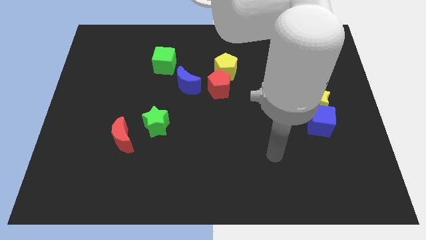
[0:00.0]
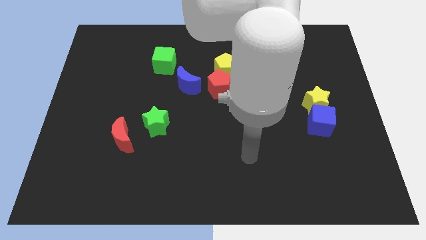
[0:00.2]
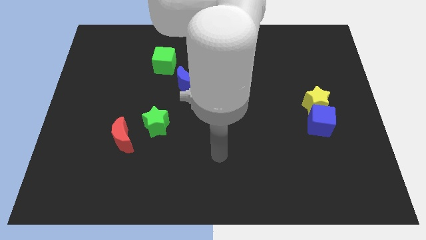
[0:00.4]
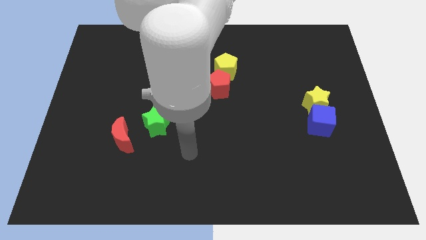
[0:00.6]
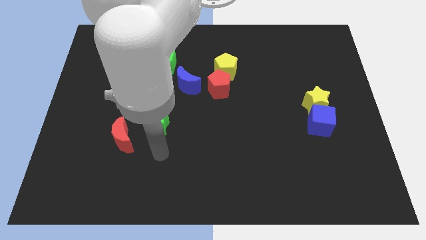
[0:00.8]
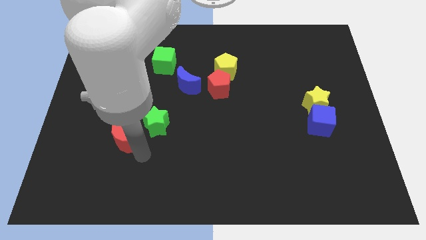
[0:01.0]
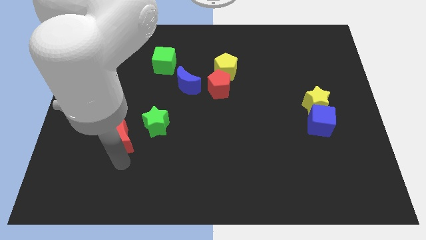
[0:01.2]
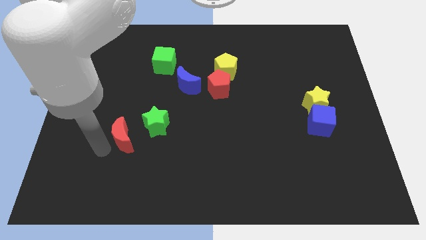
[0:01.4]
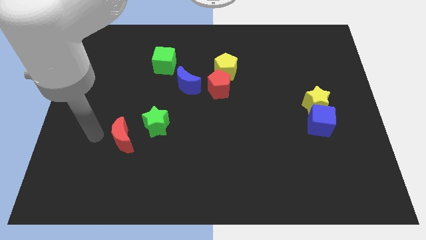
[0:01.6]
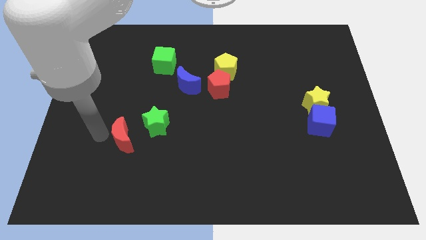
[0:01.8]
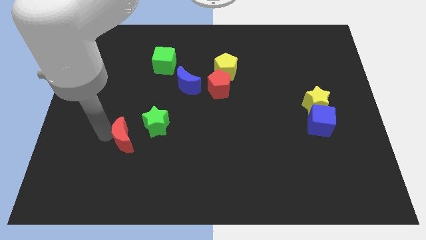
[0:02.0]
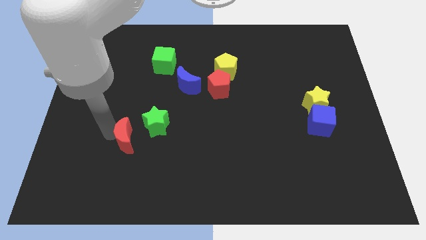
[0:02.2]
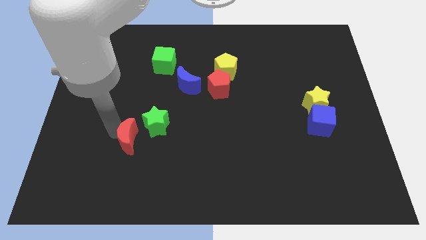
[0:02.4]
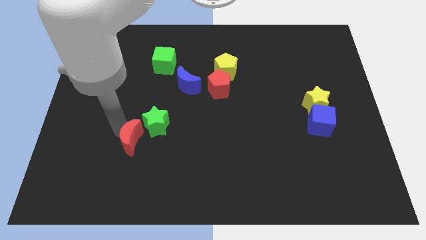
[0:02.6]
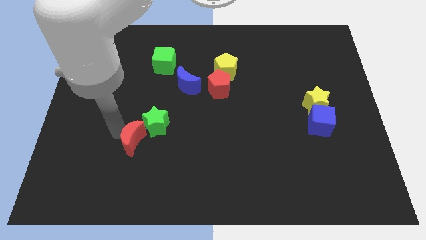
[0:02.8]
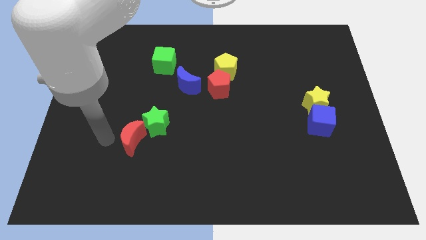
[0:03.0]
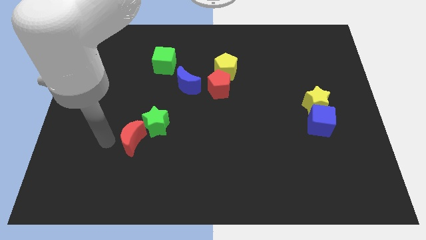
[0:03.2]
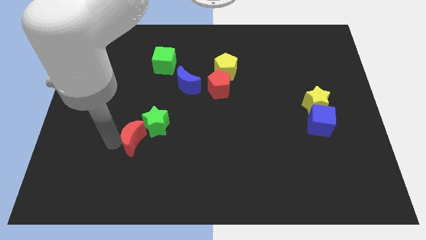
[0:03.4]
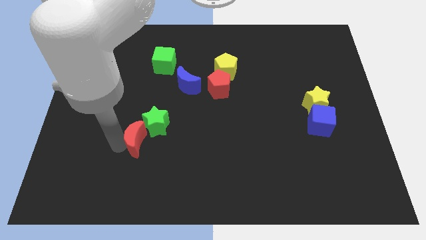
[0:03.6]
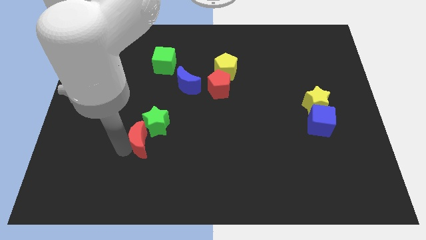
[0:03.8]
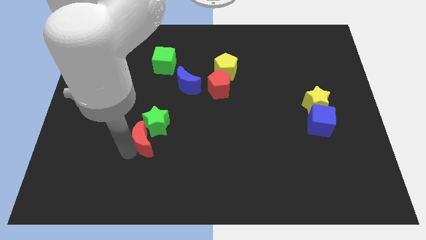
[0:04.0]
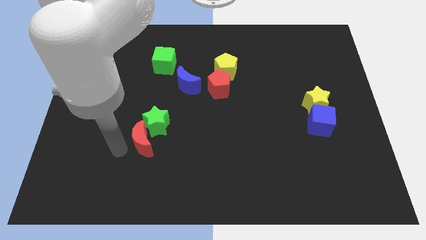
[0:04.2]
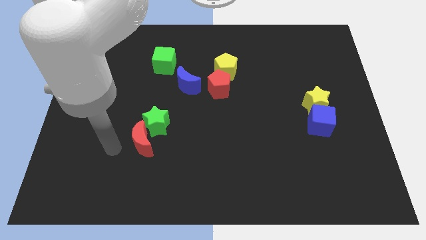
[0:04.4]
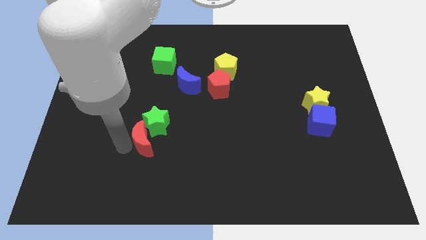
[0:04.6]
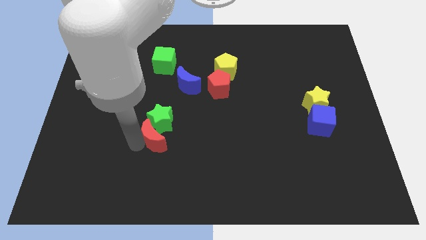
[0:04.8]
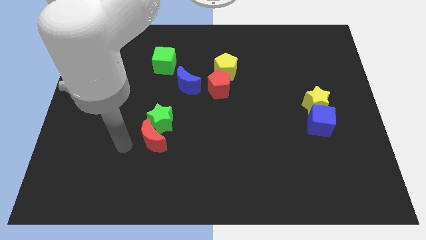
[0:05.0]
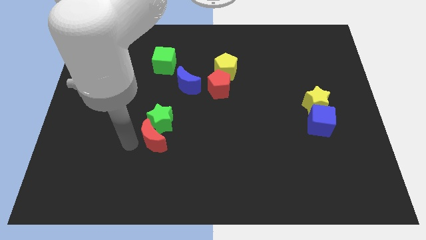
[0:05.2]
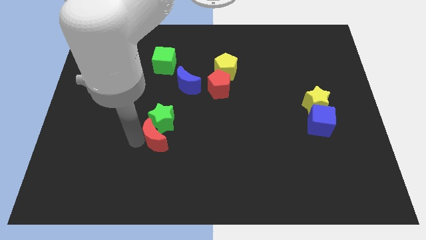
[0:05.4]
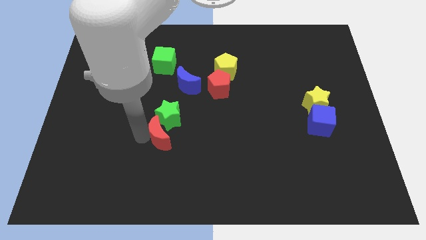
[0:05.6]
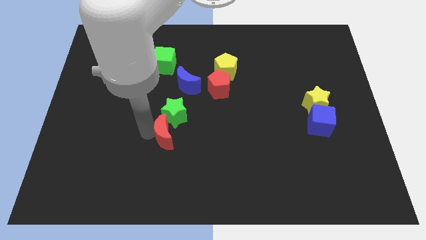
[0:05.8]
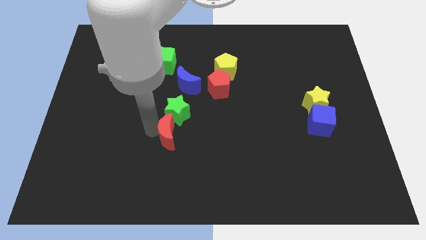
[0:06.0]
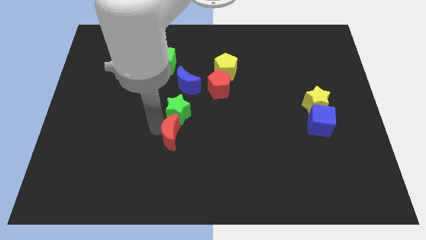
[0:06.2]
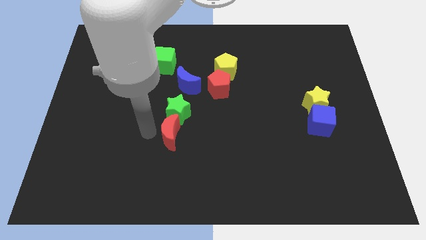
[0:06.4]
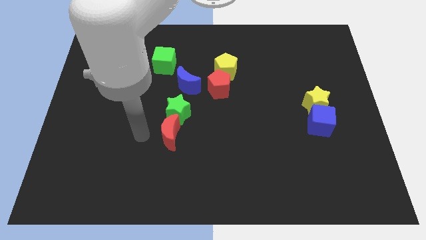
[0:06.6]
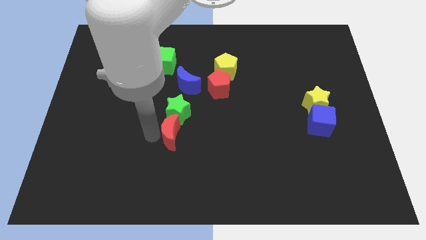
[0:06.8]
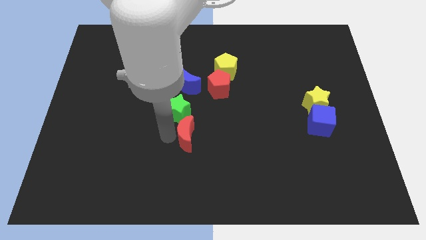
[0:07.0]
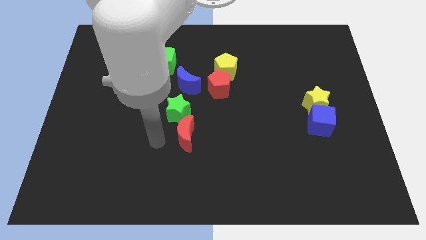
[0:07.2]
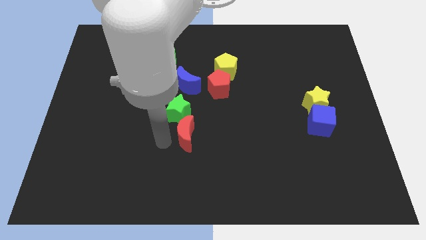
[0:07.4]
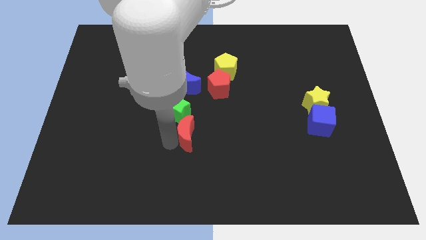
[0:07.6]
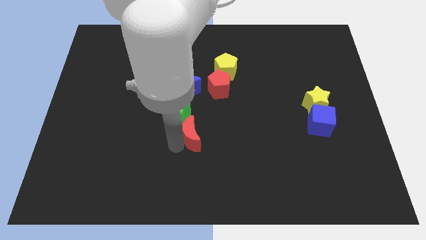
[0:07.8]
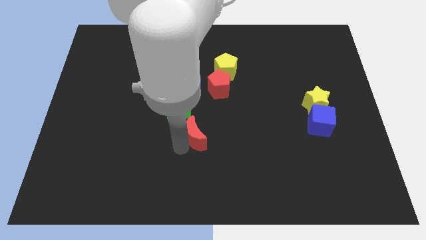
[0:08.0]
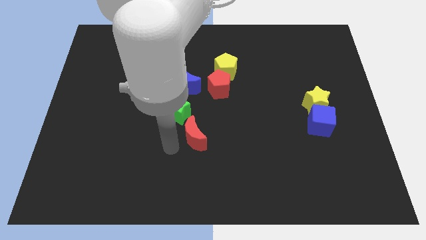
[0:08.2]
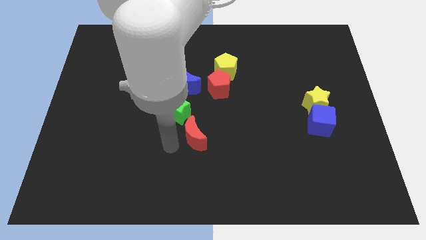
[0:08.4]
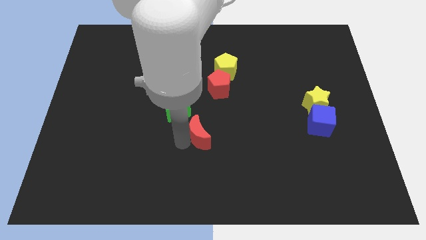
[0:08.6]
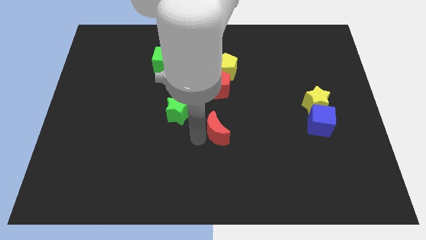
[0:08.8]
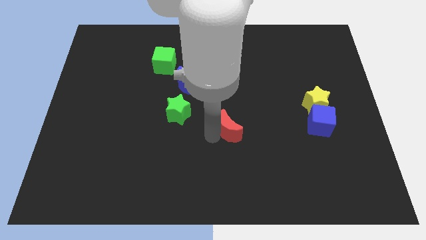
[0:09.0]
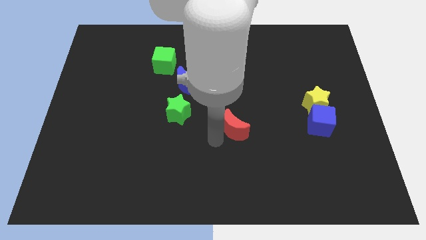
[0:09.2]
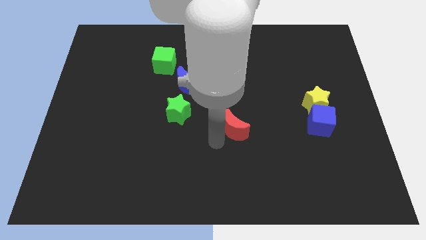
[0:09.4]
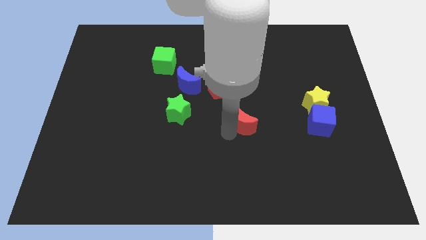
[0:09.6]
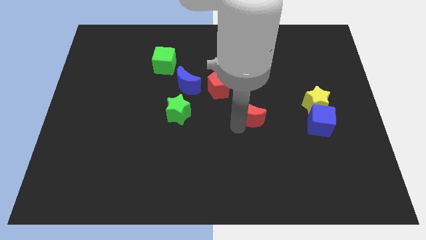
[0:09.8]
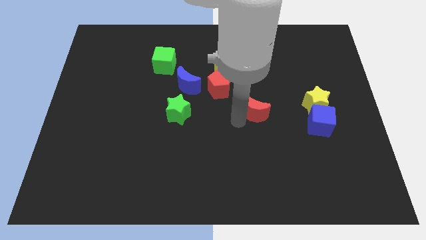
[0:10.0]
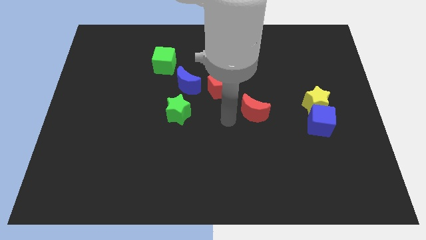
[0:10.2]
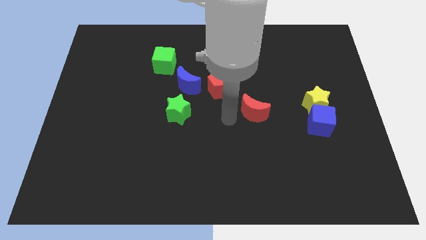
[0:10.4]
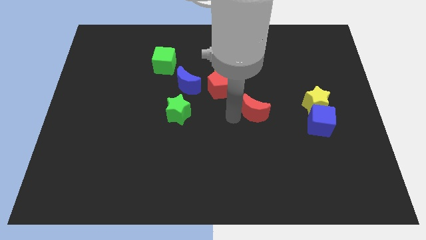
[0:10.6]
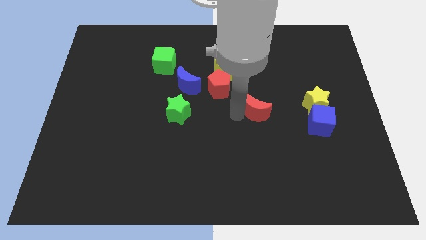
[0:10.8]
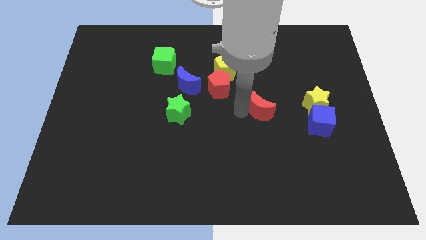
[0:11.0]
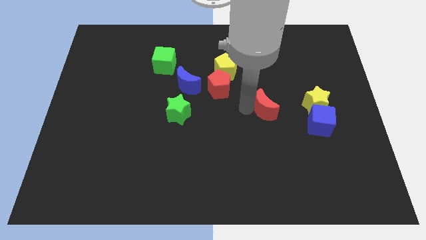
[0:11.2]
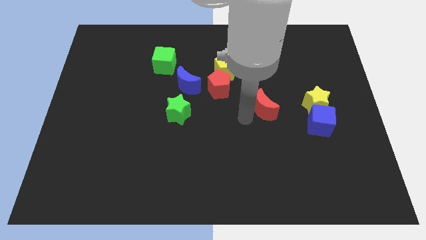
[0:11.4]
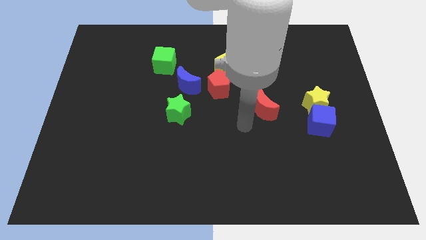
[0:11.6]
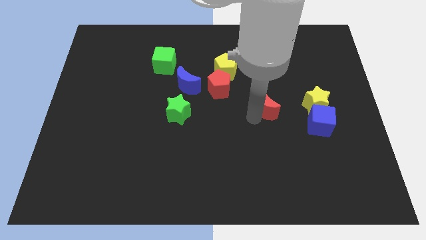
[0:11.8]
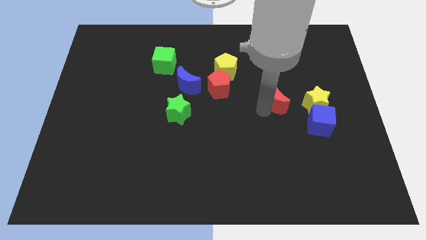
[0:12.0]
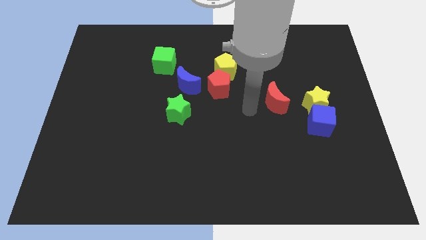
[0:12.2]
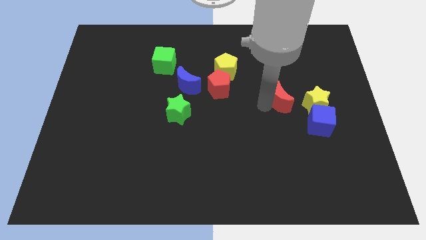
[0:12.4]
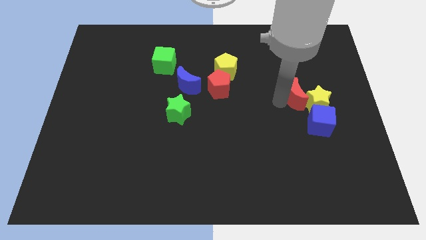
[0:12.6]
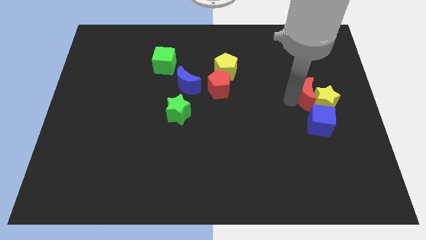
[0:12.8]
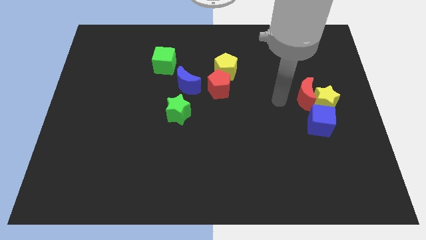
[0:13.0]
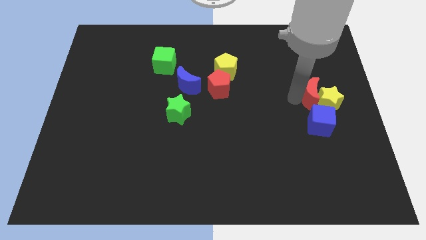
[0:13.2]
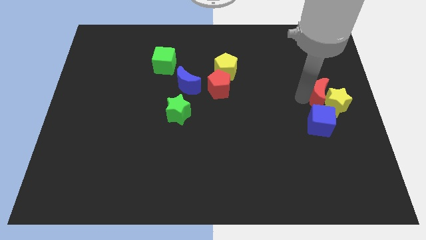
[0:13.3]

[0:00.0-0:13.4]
put the red moon to the right side of the board
